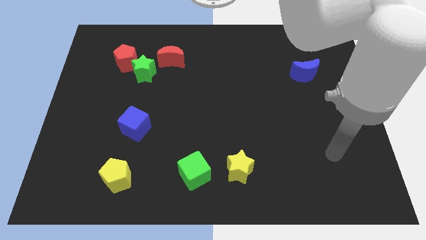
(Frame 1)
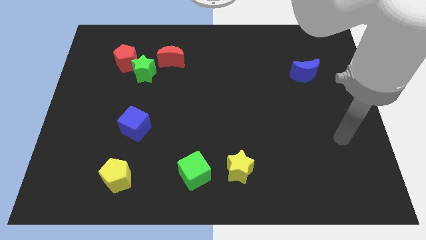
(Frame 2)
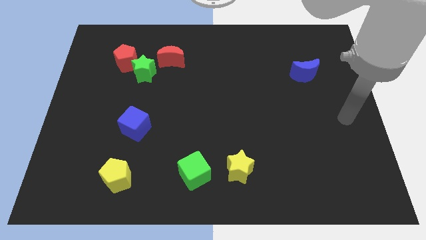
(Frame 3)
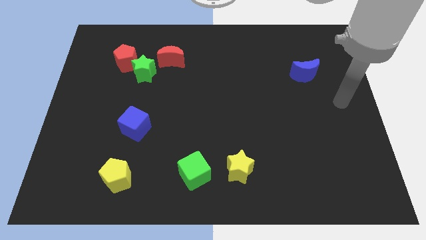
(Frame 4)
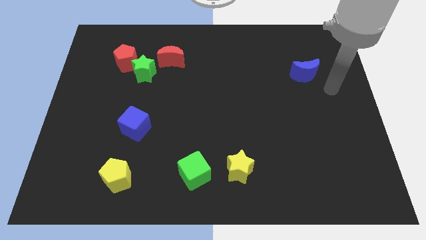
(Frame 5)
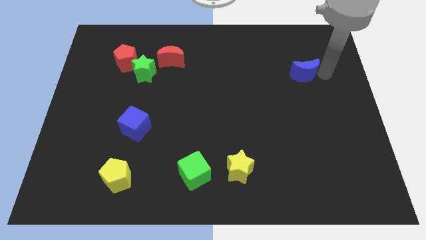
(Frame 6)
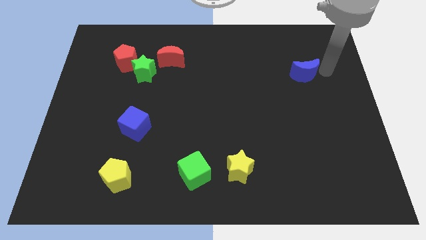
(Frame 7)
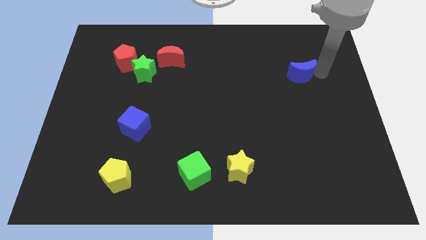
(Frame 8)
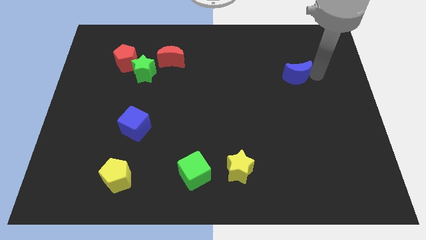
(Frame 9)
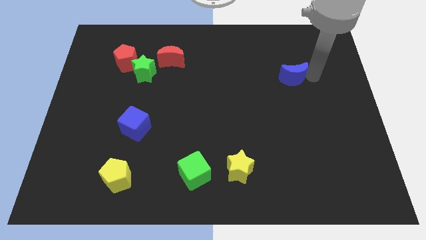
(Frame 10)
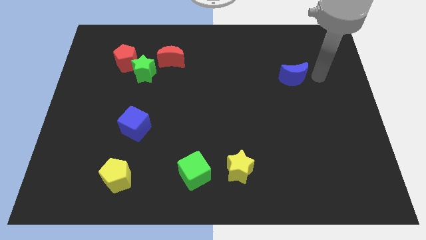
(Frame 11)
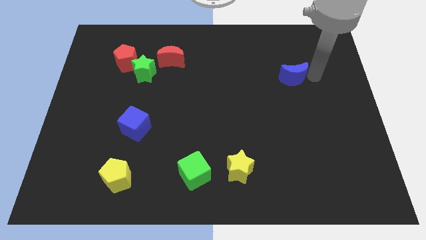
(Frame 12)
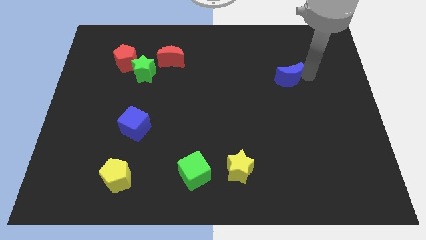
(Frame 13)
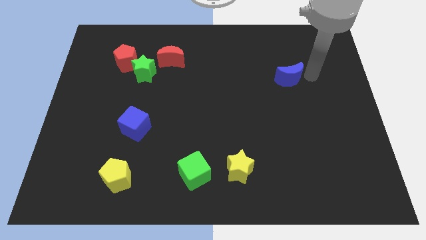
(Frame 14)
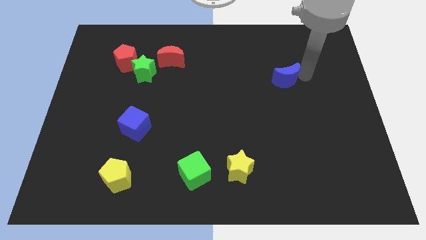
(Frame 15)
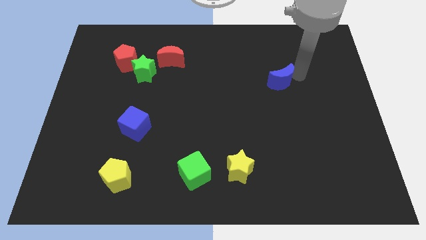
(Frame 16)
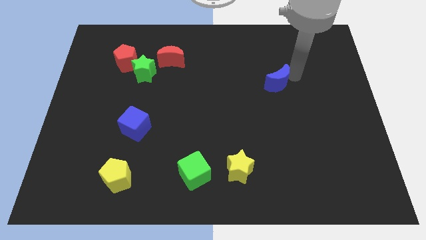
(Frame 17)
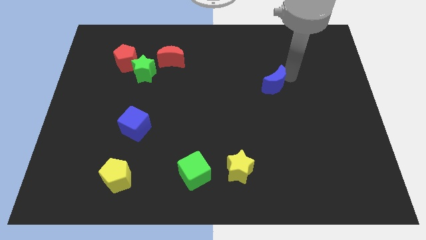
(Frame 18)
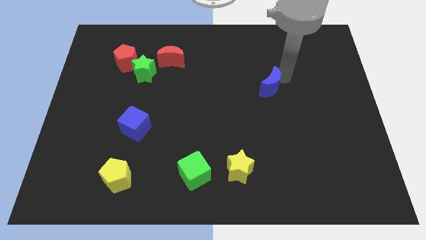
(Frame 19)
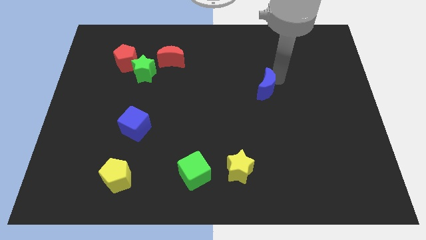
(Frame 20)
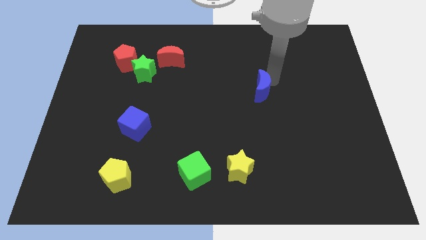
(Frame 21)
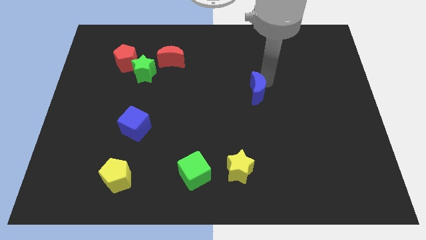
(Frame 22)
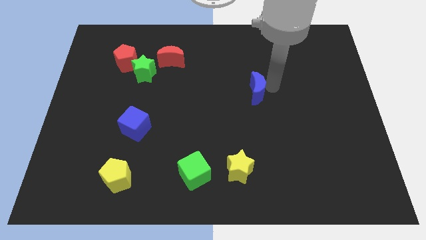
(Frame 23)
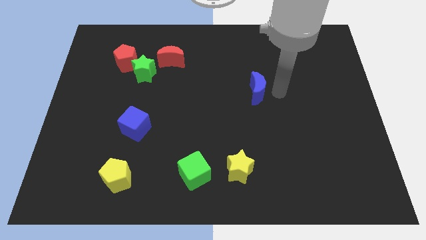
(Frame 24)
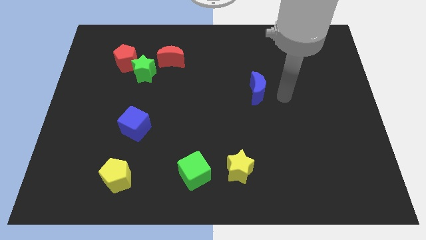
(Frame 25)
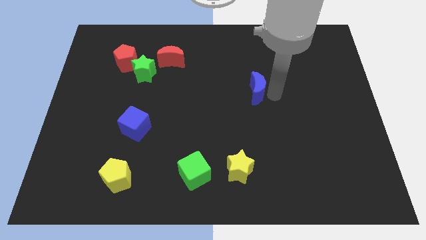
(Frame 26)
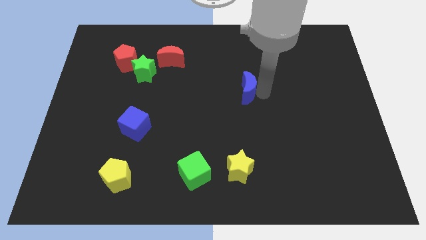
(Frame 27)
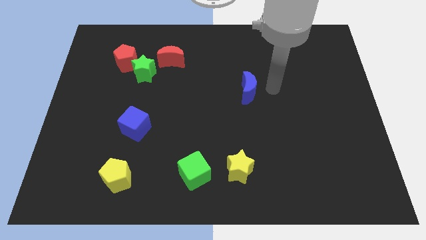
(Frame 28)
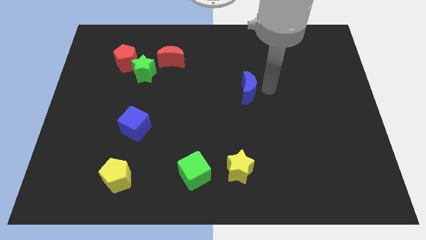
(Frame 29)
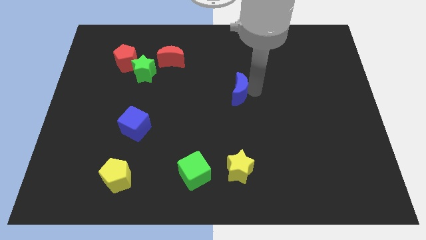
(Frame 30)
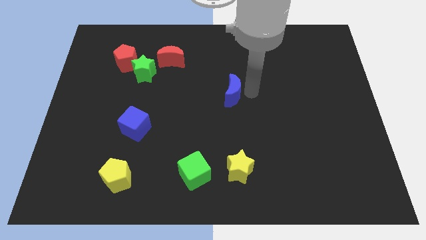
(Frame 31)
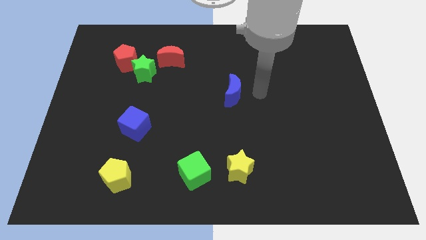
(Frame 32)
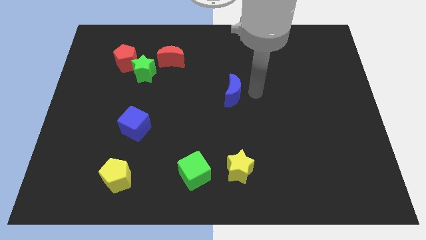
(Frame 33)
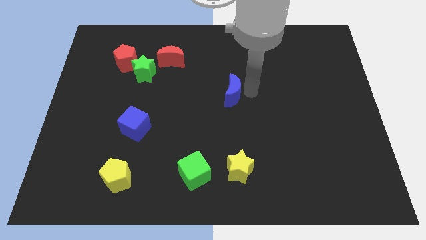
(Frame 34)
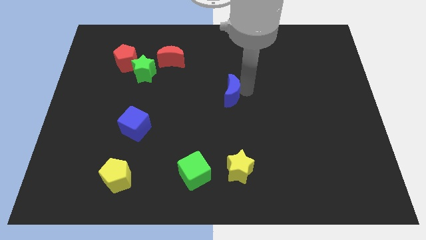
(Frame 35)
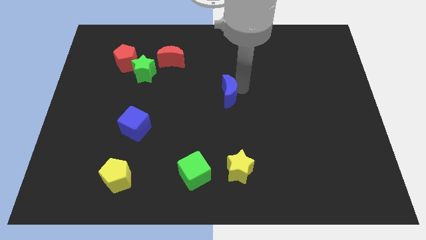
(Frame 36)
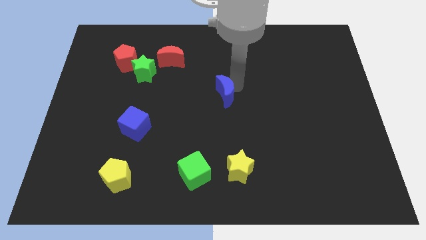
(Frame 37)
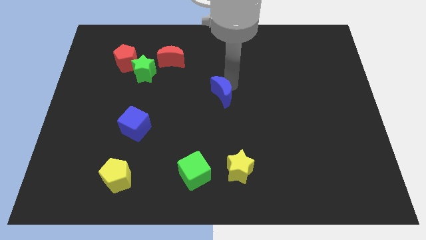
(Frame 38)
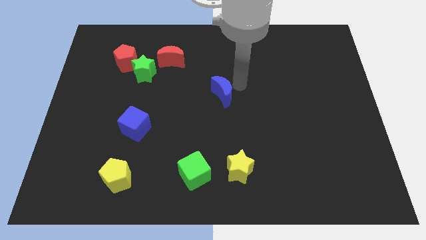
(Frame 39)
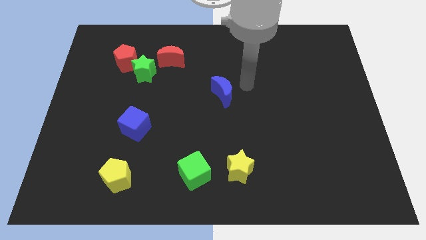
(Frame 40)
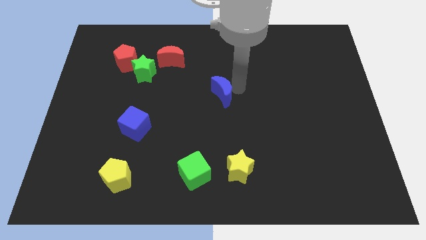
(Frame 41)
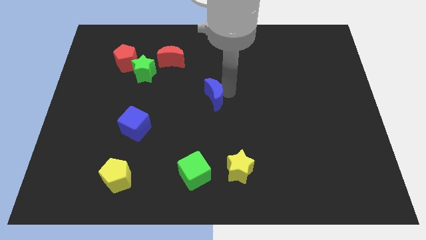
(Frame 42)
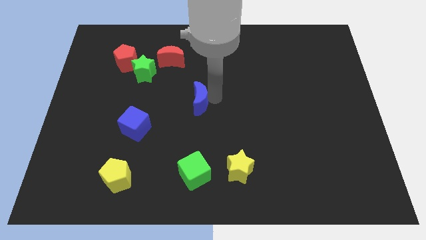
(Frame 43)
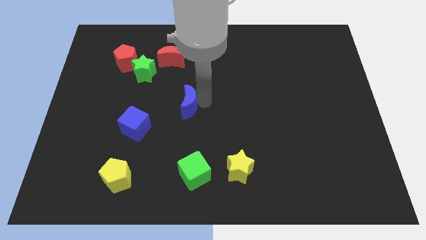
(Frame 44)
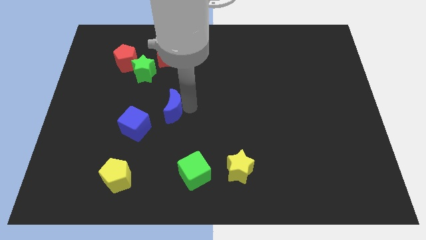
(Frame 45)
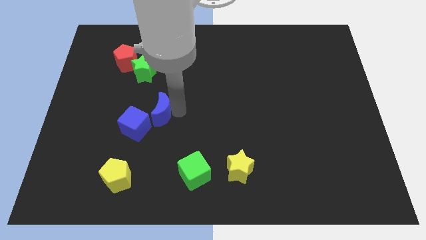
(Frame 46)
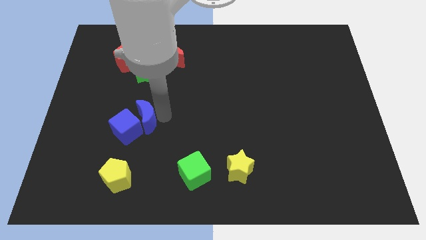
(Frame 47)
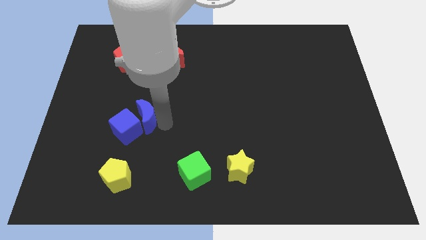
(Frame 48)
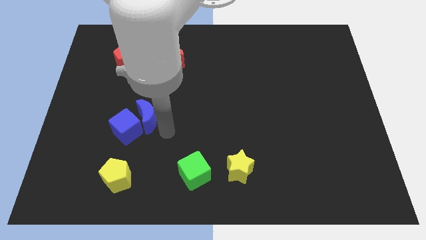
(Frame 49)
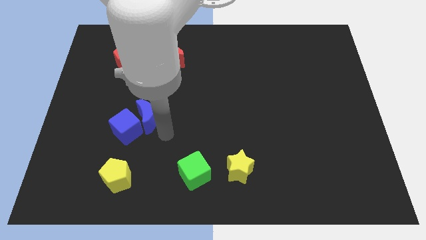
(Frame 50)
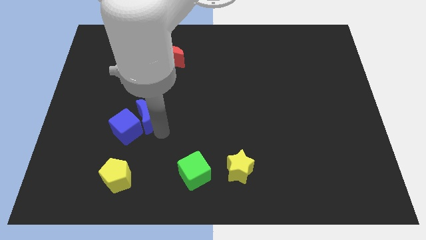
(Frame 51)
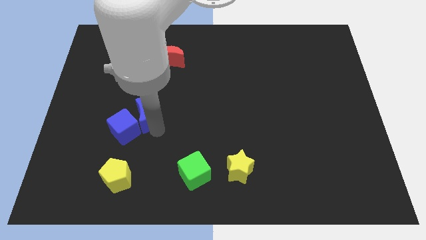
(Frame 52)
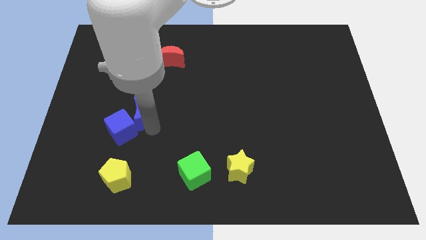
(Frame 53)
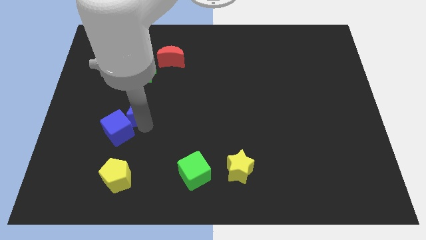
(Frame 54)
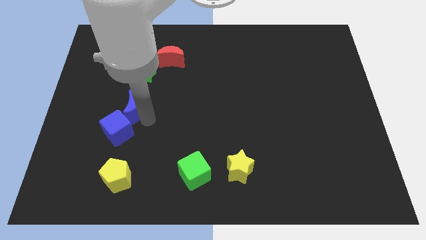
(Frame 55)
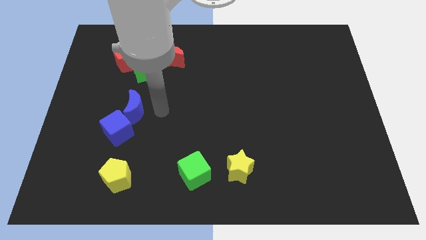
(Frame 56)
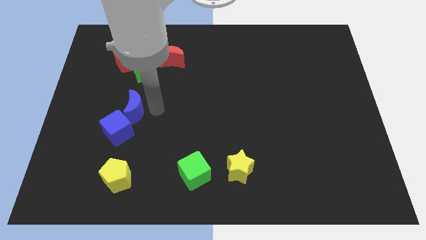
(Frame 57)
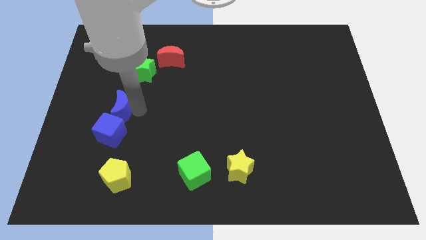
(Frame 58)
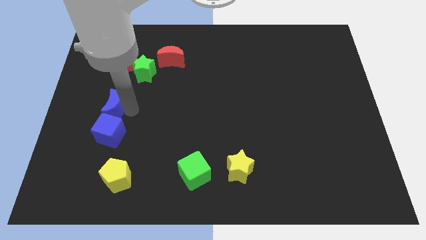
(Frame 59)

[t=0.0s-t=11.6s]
push the blue moon to the top left of the blue cube
